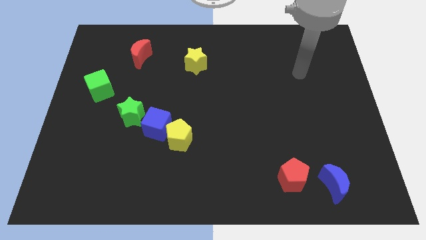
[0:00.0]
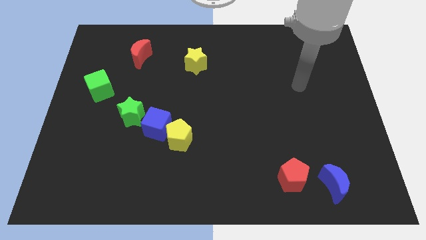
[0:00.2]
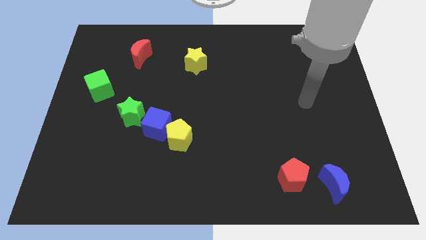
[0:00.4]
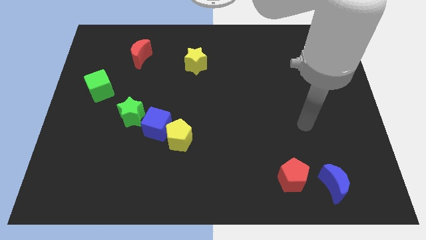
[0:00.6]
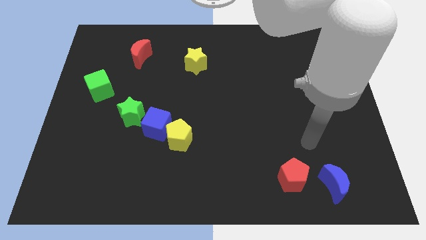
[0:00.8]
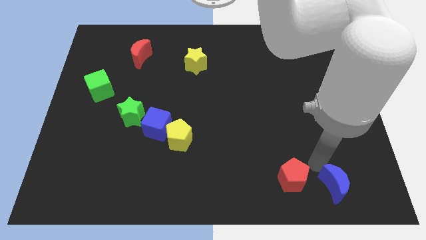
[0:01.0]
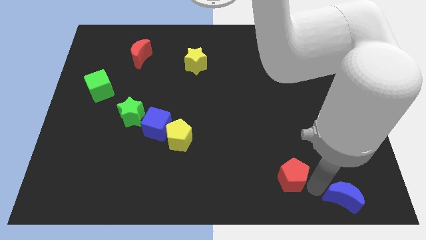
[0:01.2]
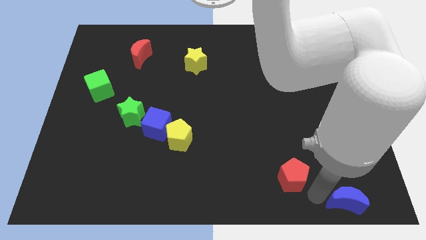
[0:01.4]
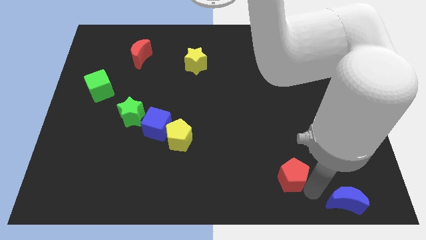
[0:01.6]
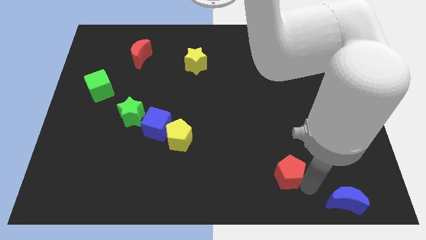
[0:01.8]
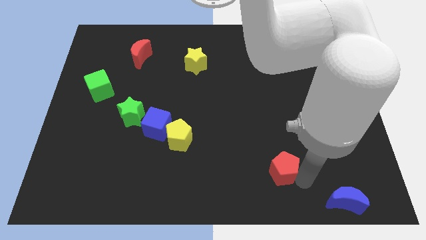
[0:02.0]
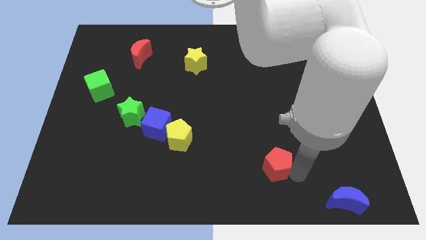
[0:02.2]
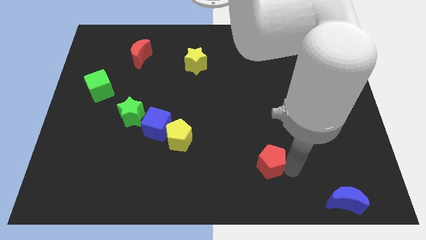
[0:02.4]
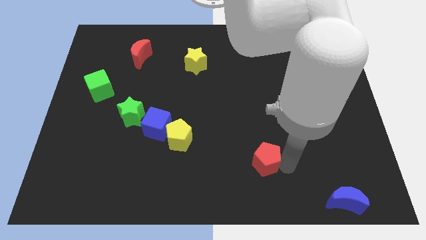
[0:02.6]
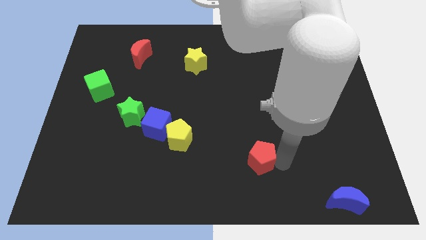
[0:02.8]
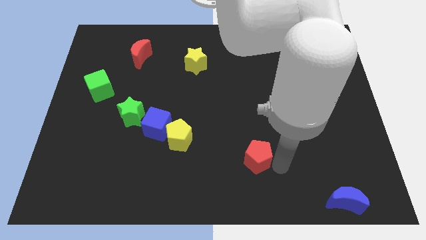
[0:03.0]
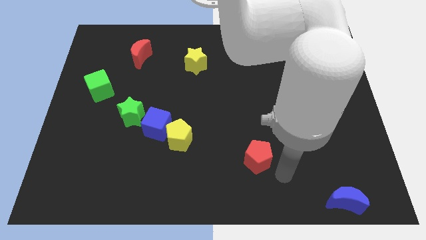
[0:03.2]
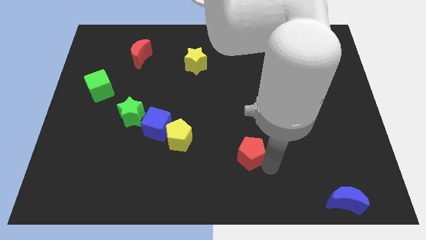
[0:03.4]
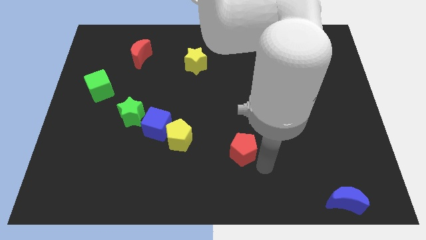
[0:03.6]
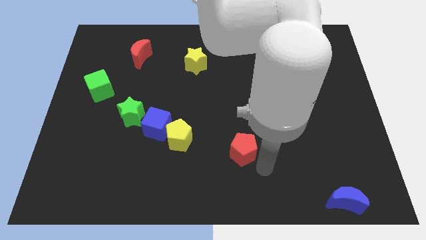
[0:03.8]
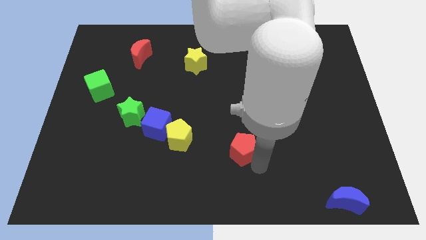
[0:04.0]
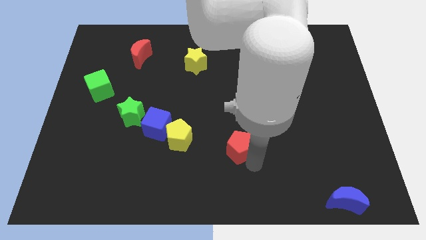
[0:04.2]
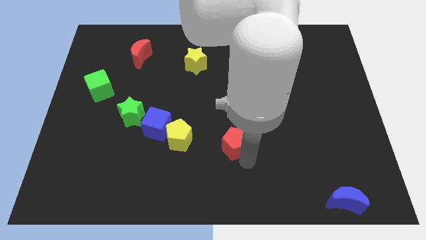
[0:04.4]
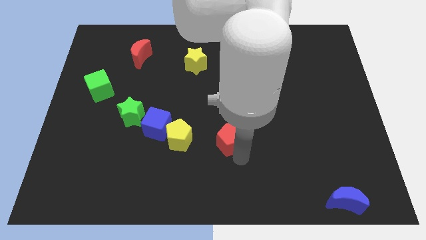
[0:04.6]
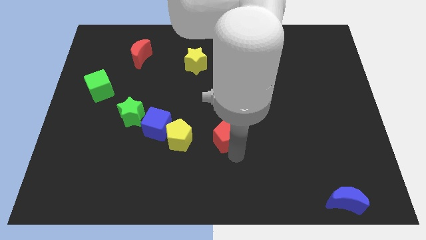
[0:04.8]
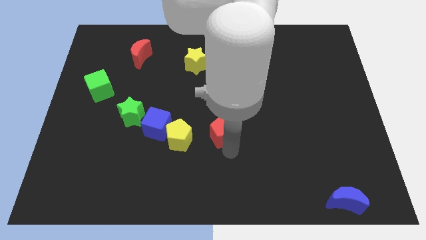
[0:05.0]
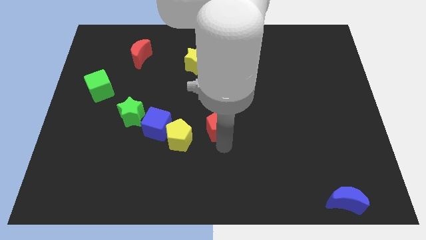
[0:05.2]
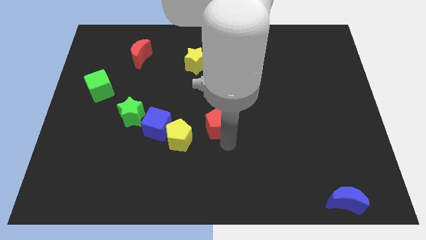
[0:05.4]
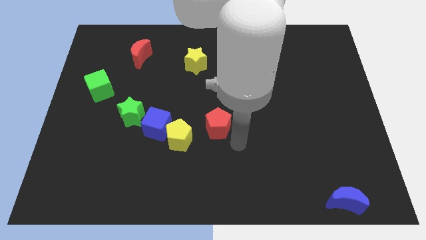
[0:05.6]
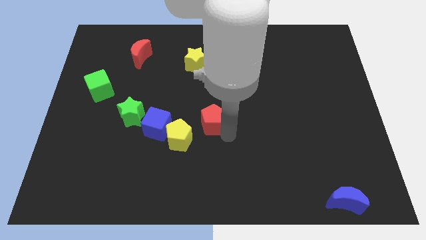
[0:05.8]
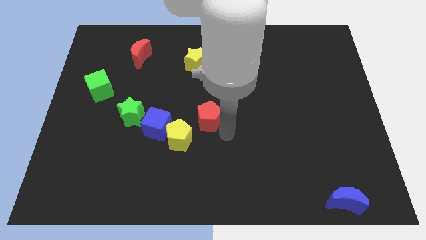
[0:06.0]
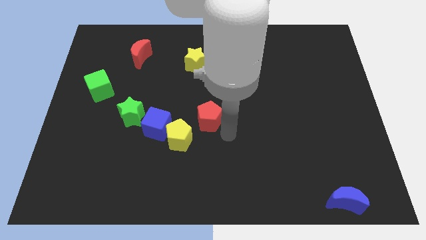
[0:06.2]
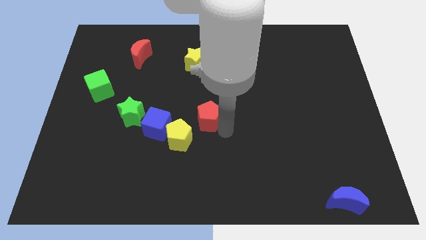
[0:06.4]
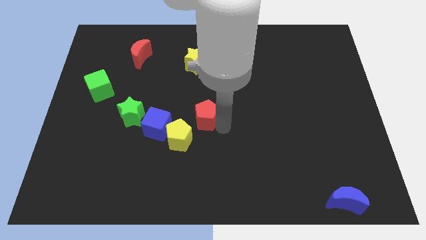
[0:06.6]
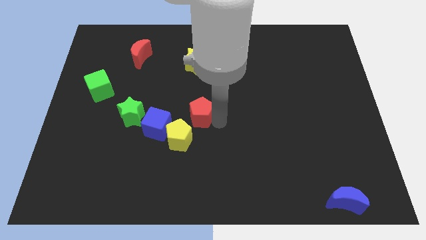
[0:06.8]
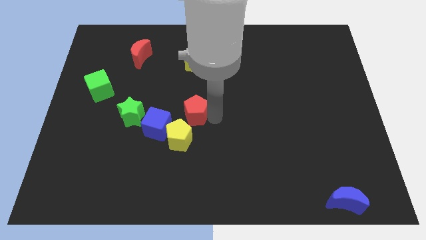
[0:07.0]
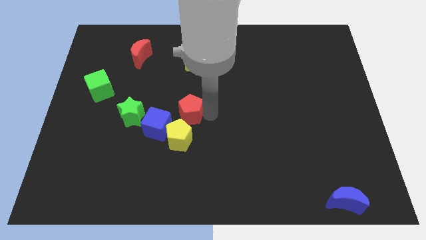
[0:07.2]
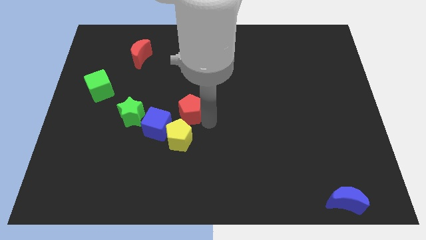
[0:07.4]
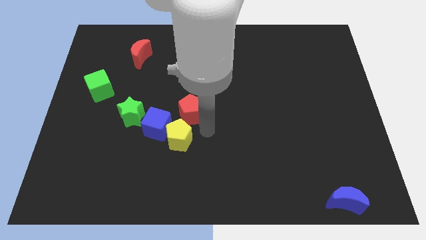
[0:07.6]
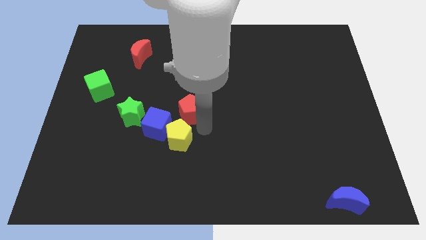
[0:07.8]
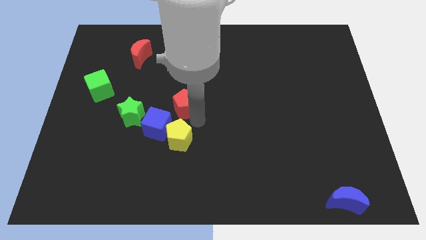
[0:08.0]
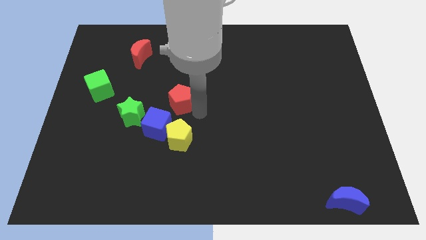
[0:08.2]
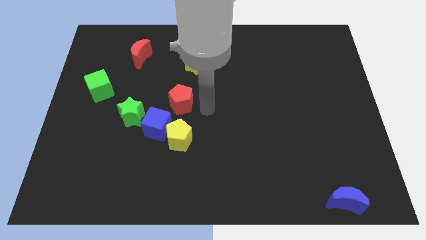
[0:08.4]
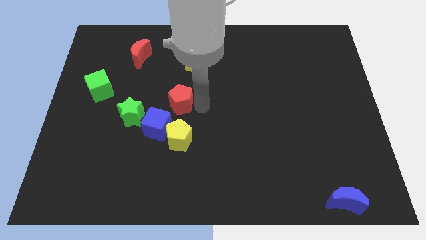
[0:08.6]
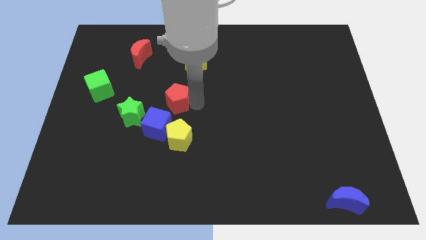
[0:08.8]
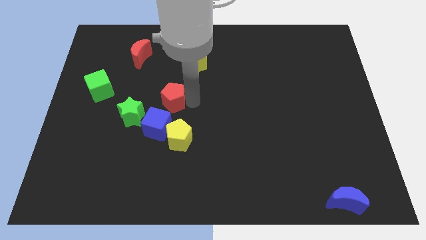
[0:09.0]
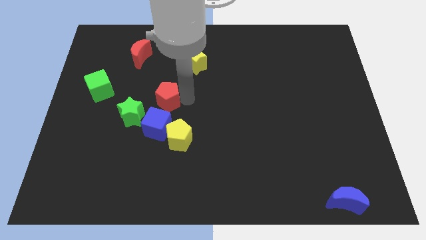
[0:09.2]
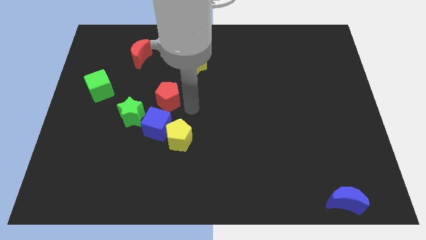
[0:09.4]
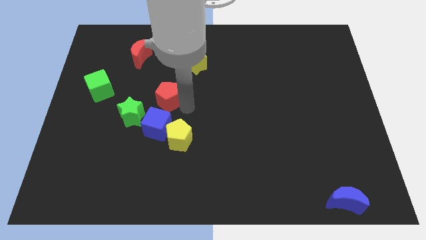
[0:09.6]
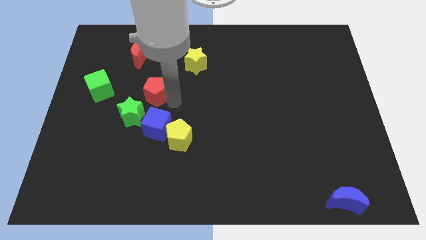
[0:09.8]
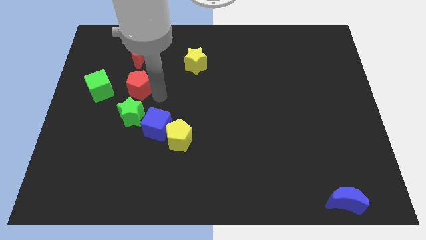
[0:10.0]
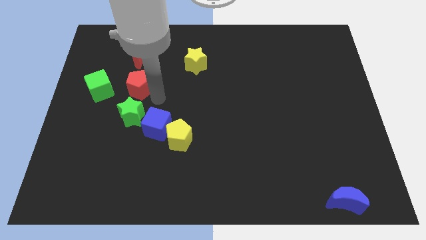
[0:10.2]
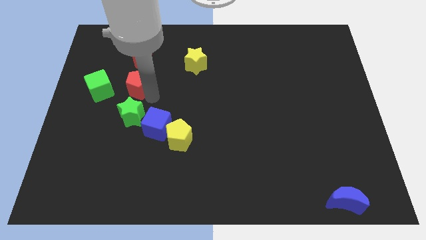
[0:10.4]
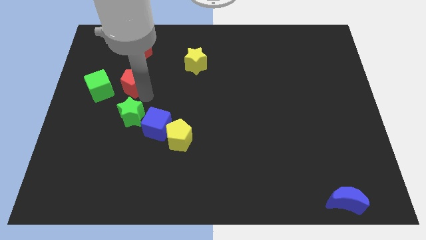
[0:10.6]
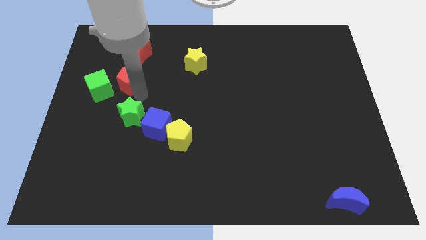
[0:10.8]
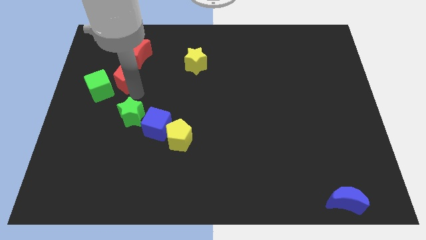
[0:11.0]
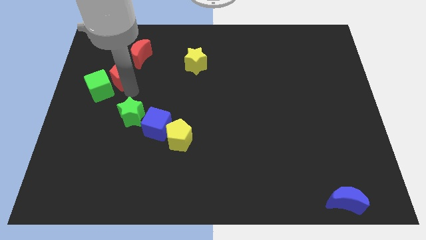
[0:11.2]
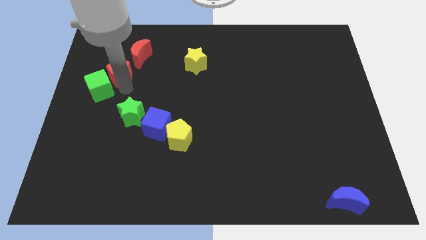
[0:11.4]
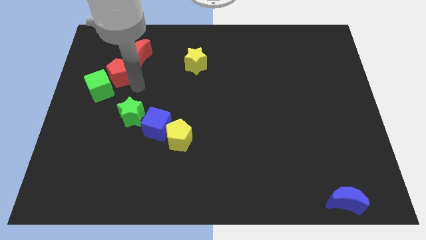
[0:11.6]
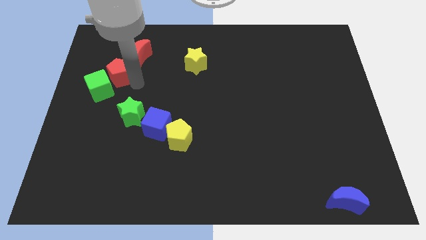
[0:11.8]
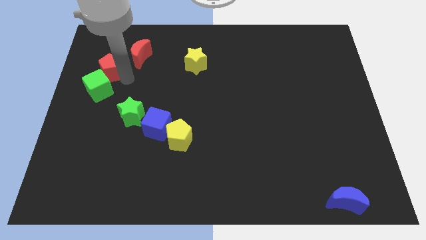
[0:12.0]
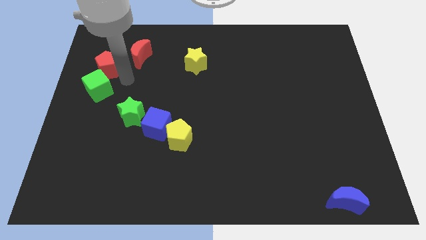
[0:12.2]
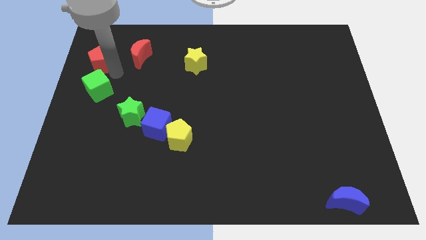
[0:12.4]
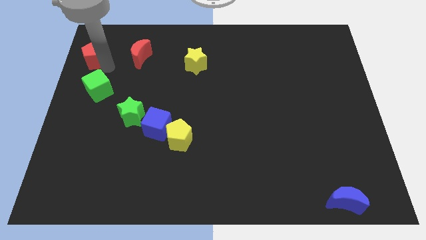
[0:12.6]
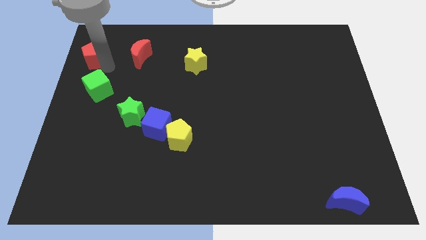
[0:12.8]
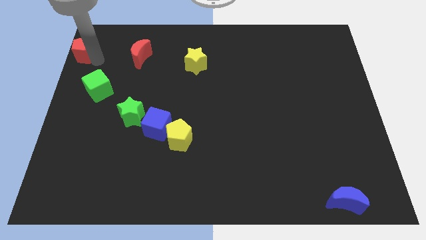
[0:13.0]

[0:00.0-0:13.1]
put the red pentagon to the top left
